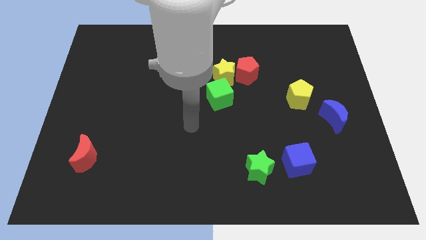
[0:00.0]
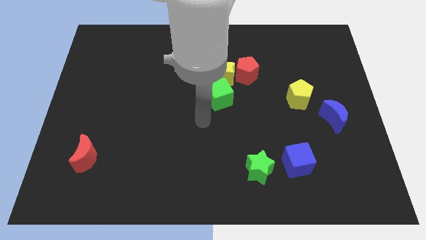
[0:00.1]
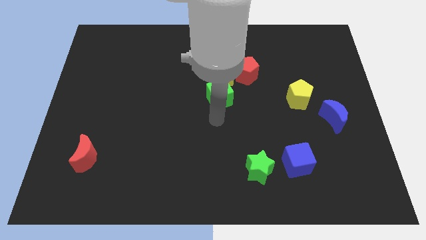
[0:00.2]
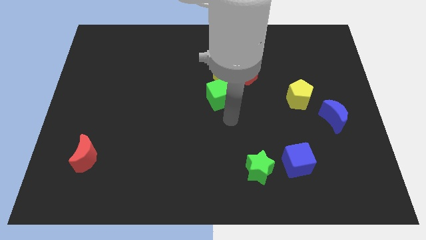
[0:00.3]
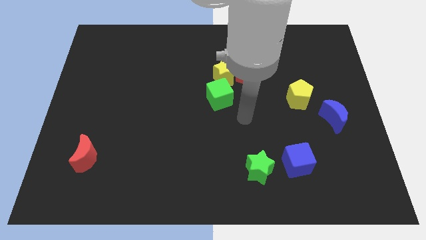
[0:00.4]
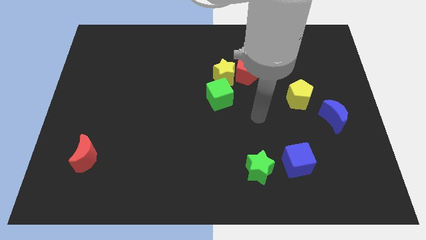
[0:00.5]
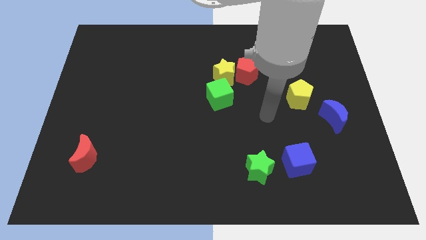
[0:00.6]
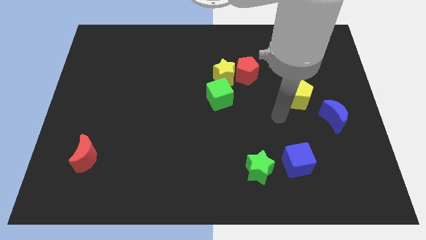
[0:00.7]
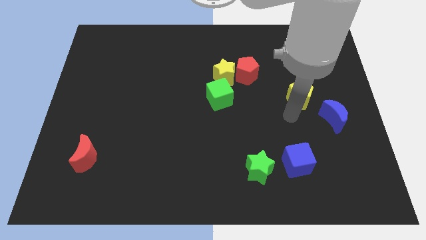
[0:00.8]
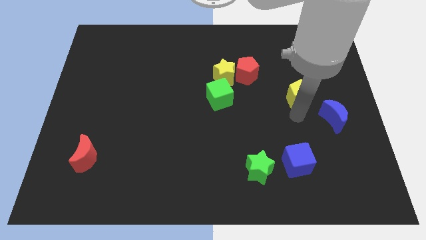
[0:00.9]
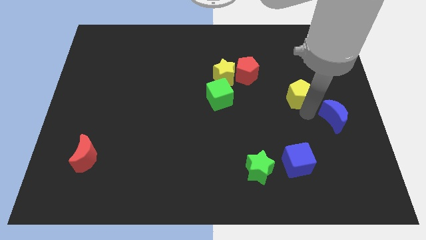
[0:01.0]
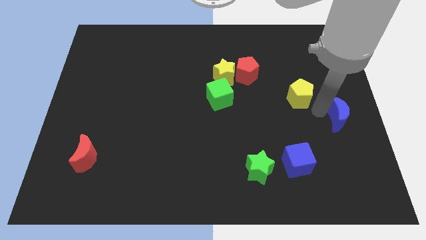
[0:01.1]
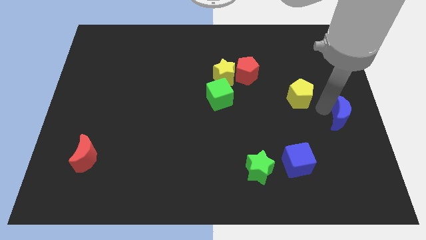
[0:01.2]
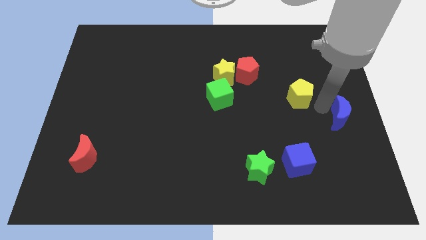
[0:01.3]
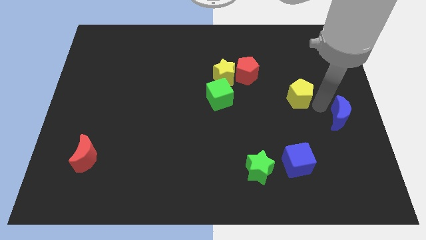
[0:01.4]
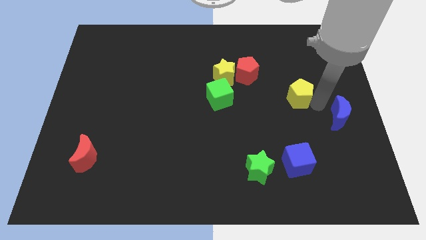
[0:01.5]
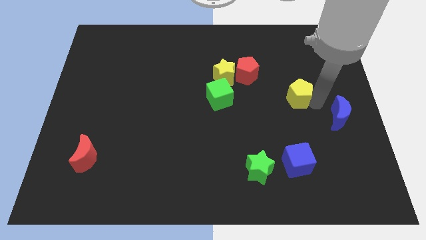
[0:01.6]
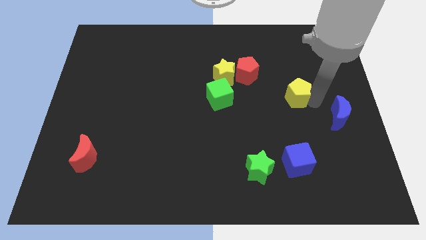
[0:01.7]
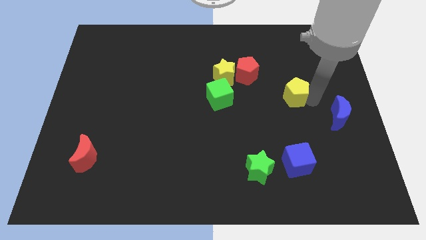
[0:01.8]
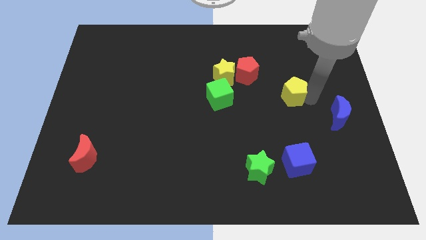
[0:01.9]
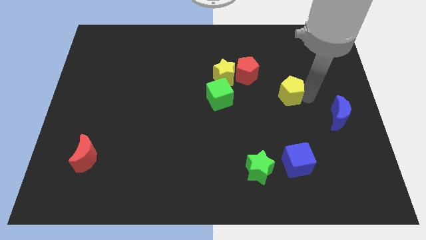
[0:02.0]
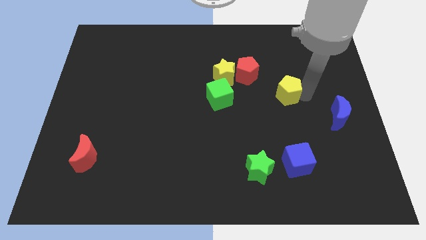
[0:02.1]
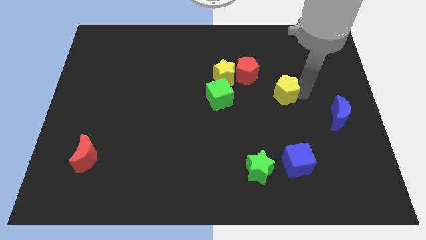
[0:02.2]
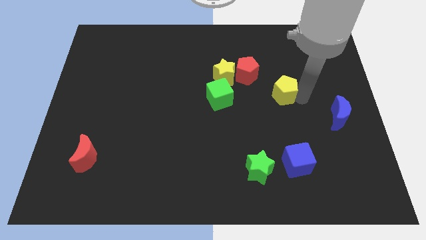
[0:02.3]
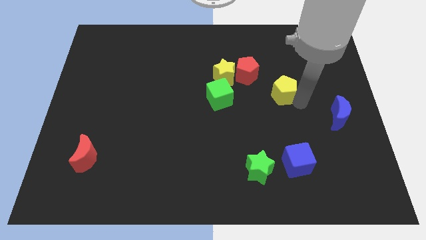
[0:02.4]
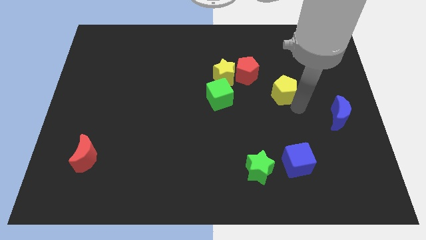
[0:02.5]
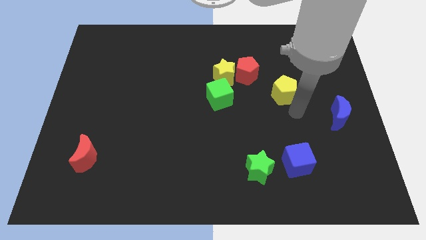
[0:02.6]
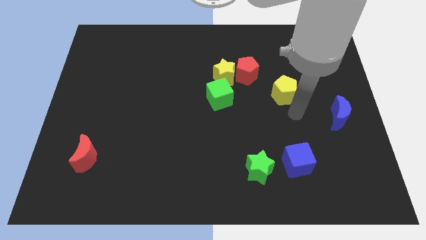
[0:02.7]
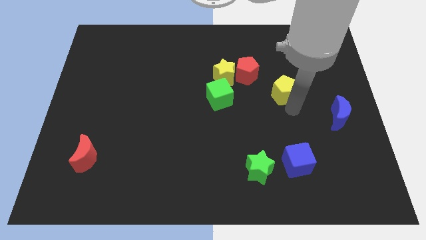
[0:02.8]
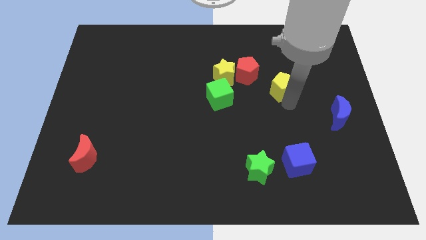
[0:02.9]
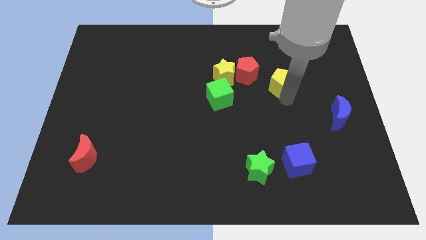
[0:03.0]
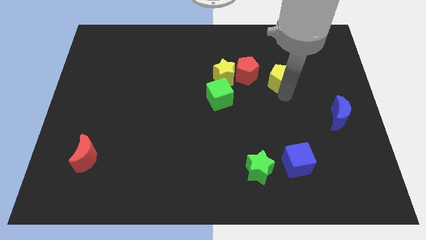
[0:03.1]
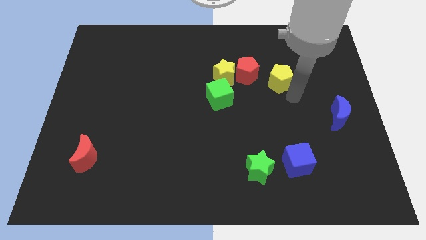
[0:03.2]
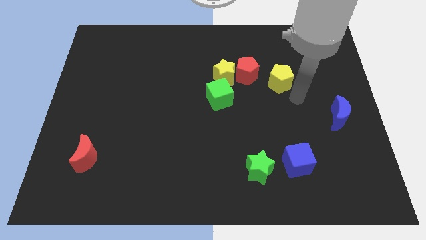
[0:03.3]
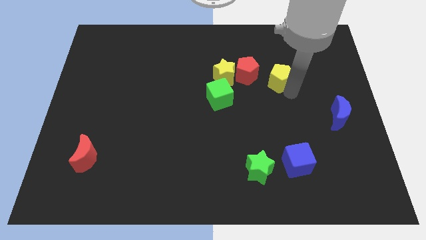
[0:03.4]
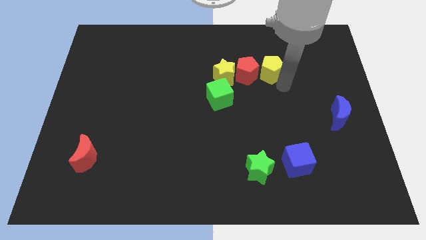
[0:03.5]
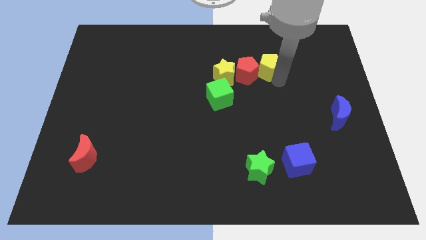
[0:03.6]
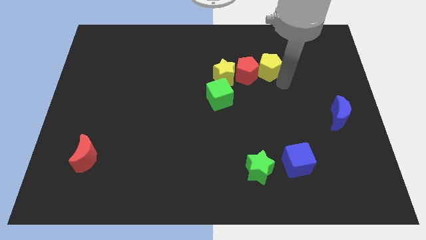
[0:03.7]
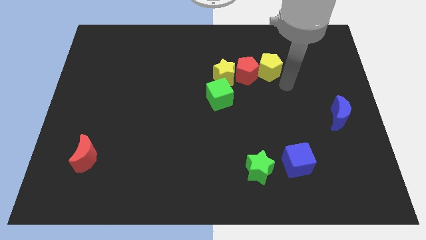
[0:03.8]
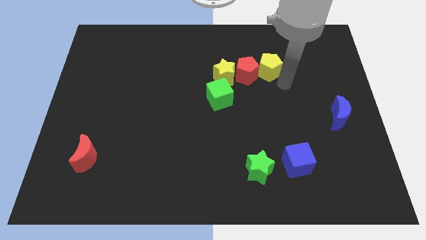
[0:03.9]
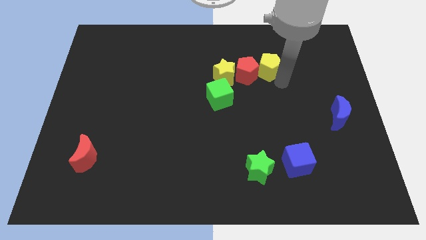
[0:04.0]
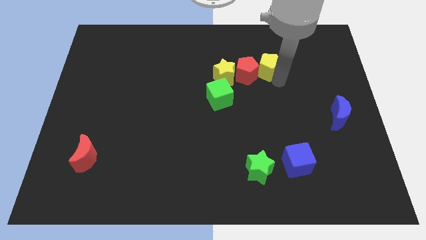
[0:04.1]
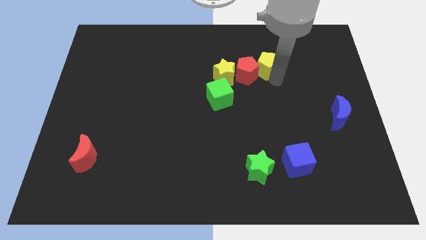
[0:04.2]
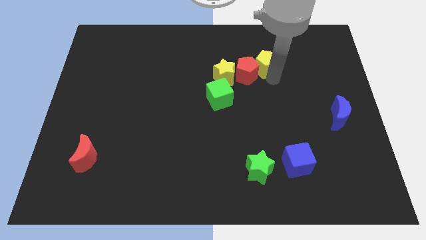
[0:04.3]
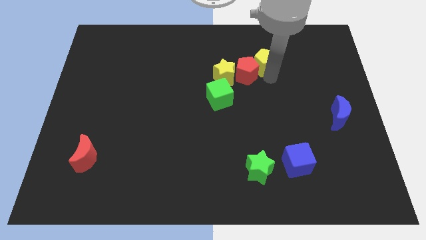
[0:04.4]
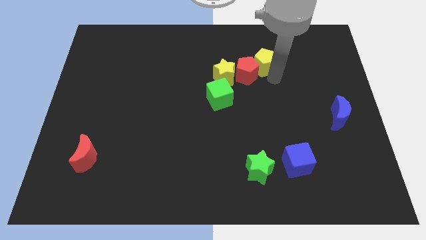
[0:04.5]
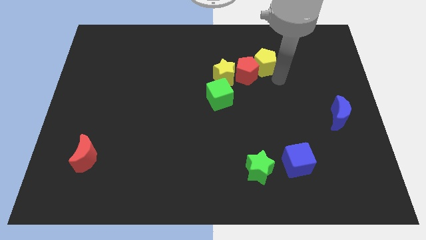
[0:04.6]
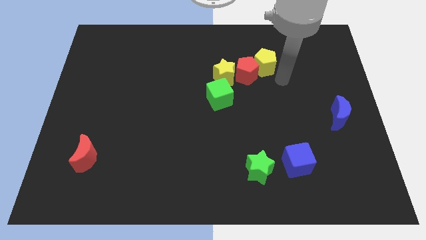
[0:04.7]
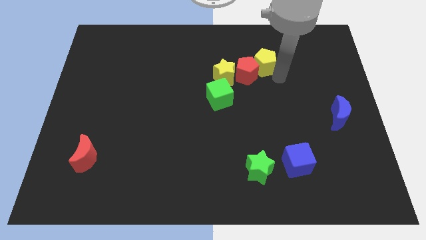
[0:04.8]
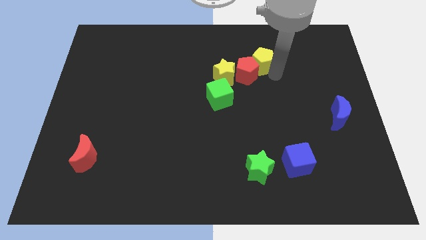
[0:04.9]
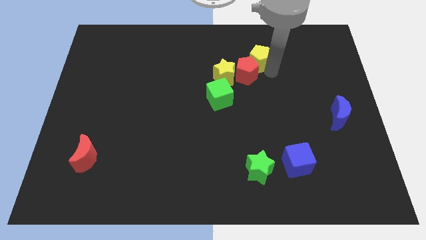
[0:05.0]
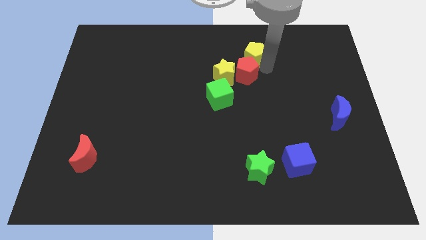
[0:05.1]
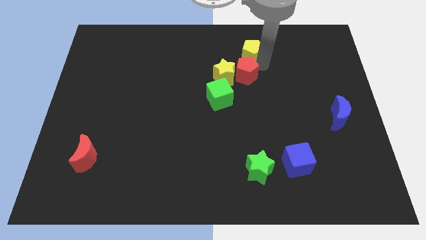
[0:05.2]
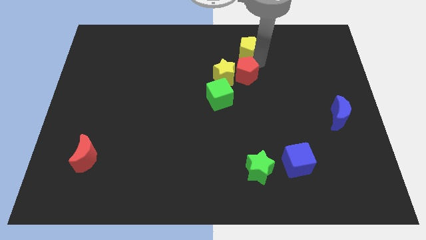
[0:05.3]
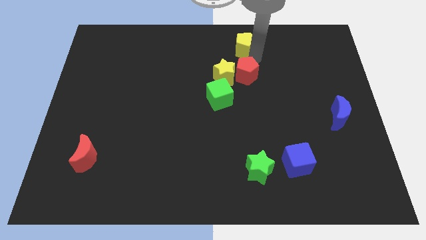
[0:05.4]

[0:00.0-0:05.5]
push the yellow pentagon to the top

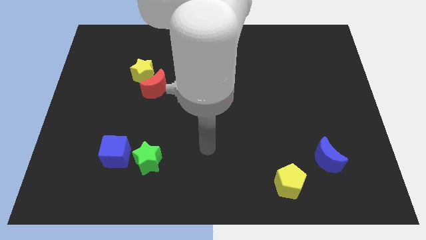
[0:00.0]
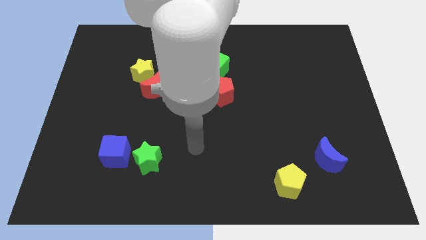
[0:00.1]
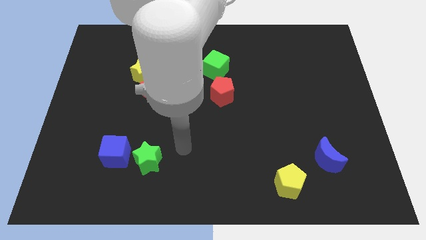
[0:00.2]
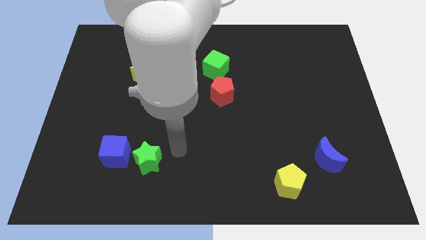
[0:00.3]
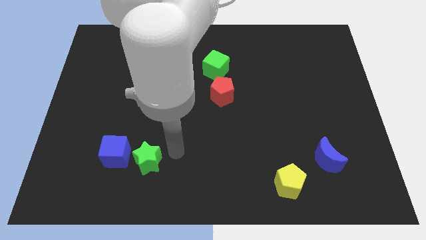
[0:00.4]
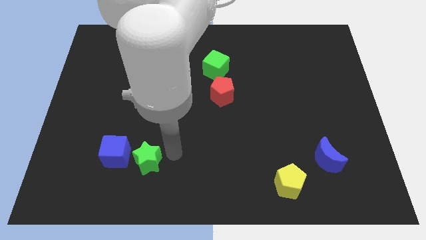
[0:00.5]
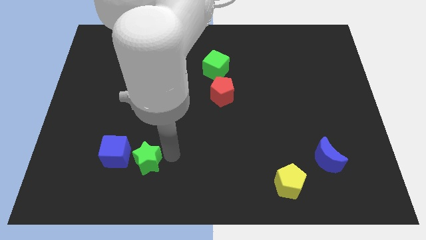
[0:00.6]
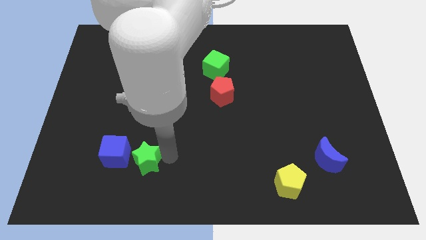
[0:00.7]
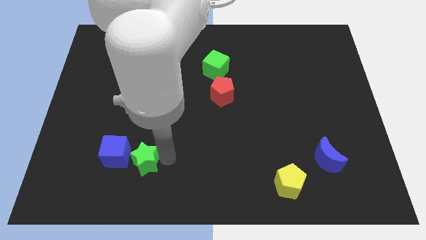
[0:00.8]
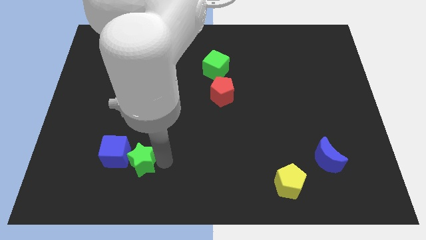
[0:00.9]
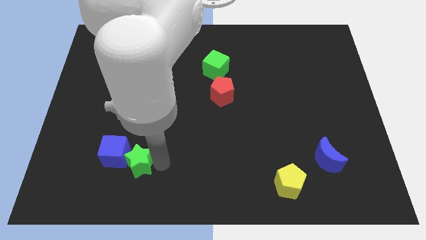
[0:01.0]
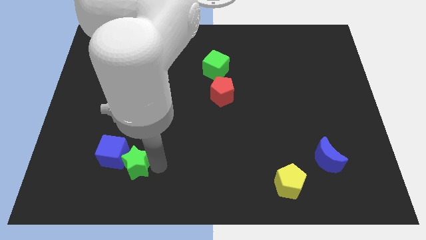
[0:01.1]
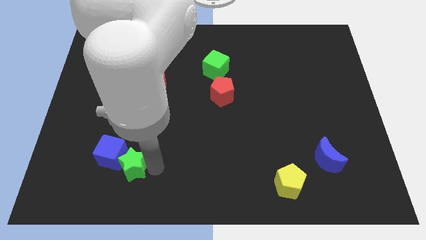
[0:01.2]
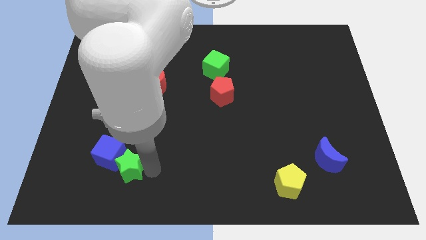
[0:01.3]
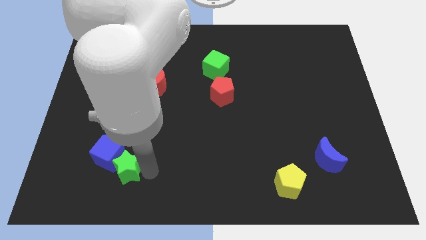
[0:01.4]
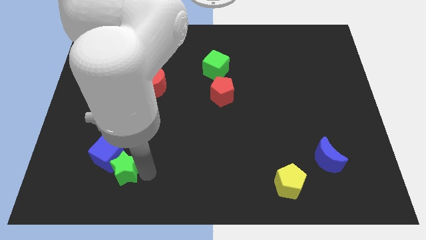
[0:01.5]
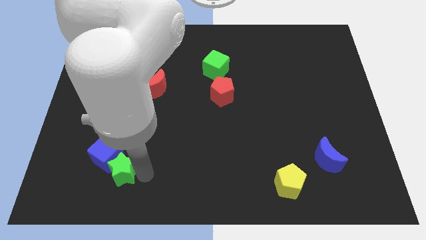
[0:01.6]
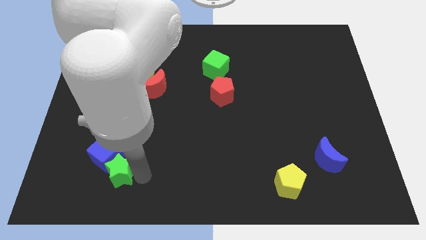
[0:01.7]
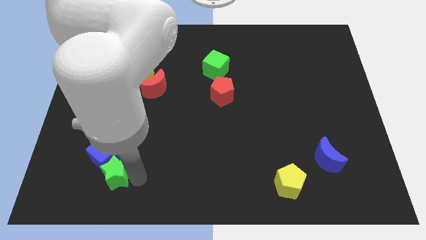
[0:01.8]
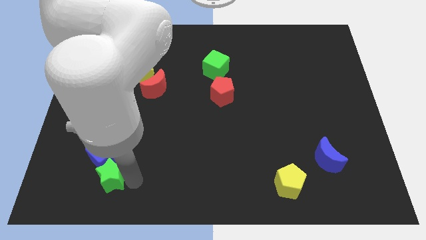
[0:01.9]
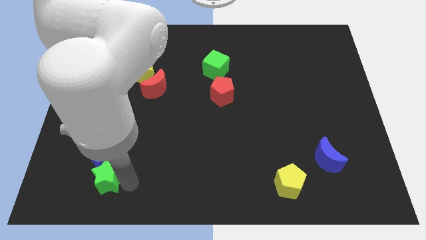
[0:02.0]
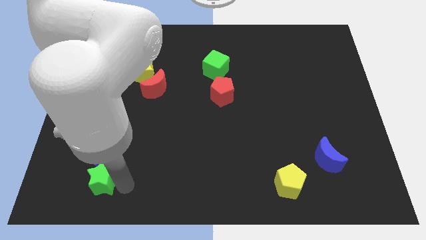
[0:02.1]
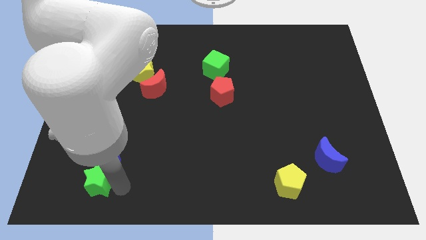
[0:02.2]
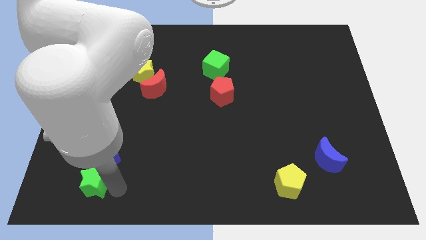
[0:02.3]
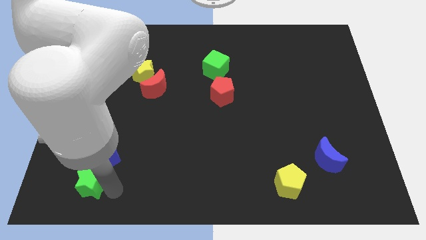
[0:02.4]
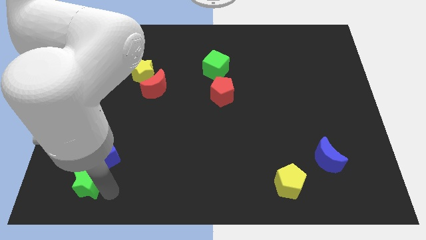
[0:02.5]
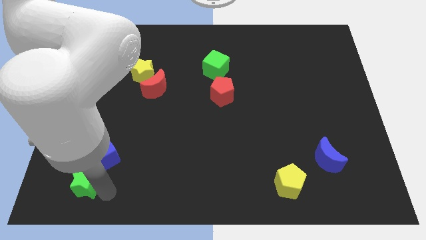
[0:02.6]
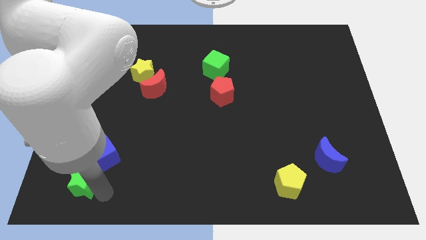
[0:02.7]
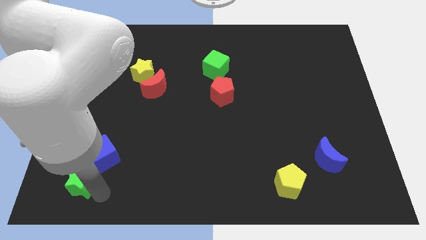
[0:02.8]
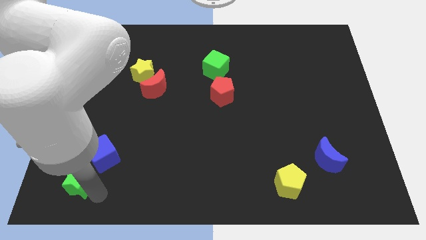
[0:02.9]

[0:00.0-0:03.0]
slide the green star to the bottom left corner
